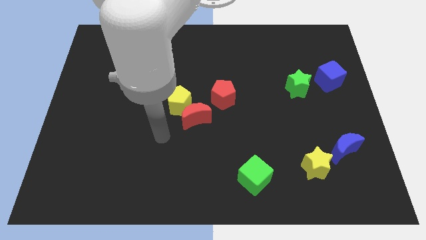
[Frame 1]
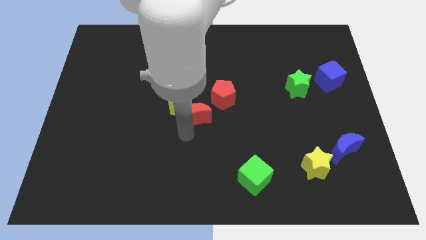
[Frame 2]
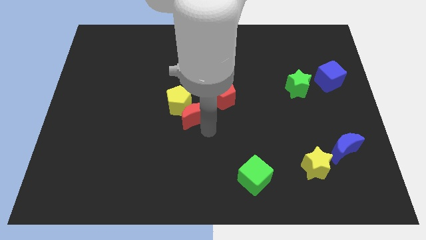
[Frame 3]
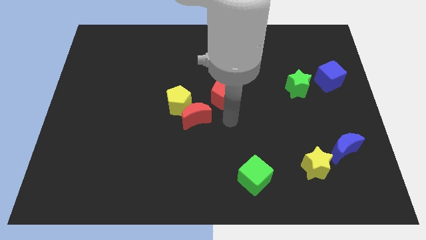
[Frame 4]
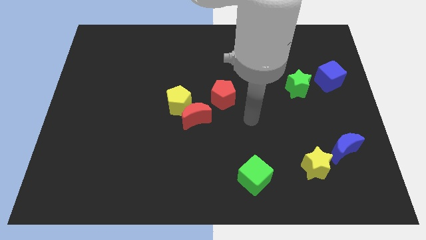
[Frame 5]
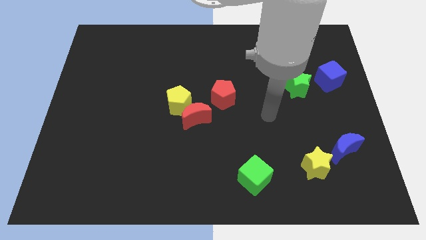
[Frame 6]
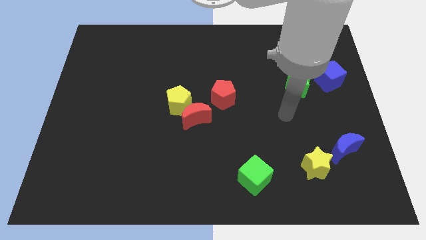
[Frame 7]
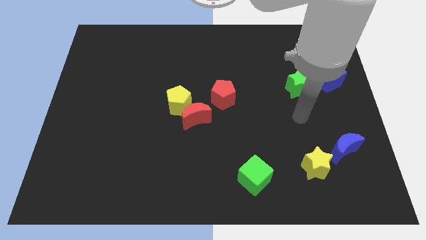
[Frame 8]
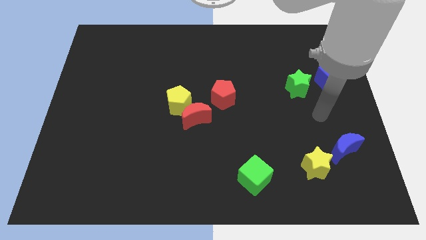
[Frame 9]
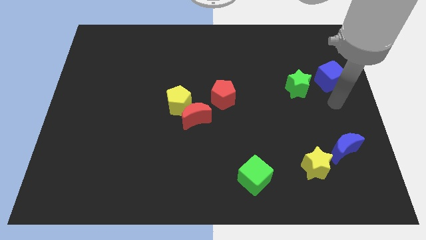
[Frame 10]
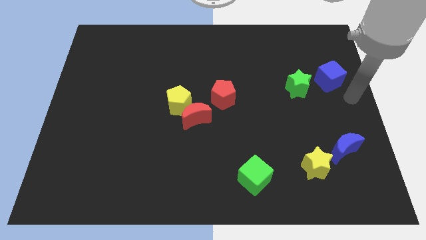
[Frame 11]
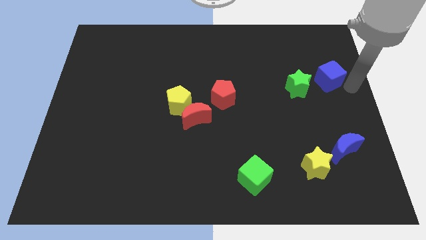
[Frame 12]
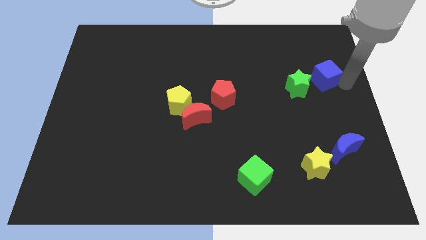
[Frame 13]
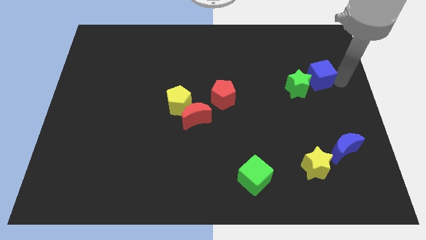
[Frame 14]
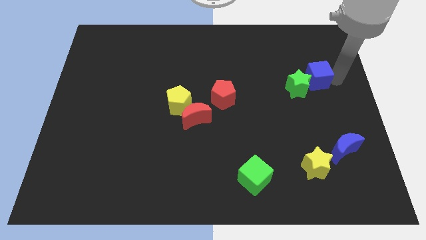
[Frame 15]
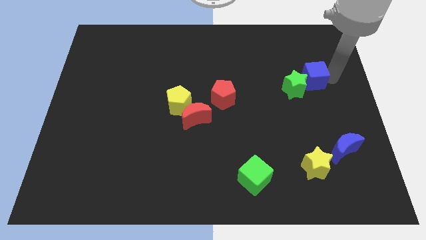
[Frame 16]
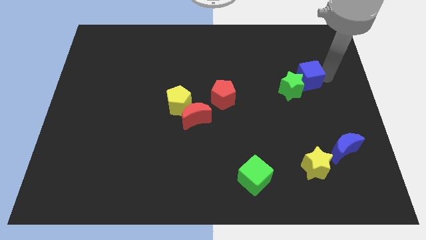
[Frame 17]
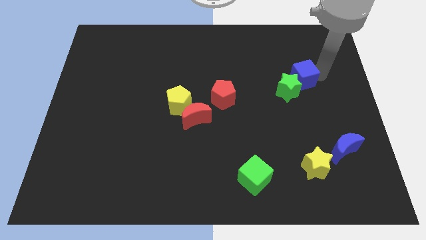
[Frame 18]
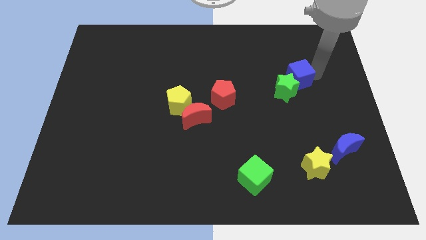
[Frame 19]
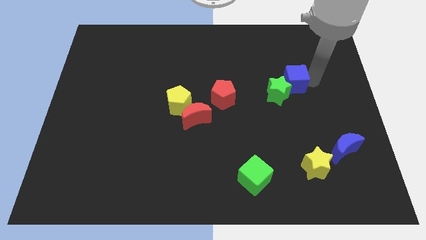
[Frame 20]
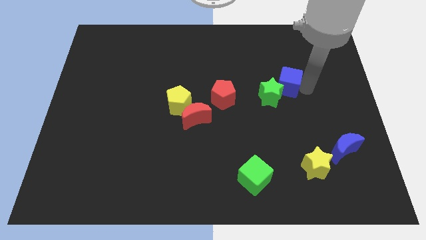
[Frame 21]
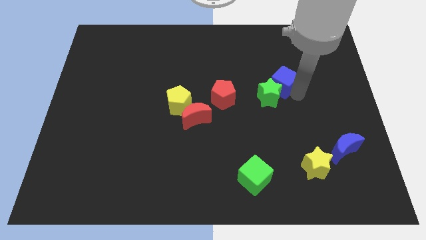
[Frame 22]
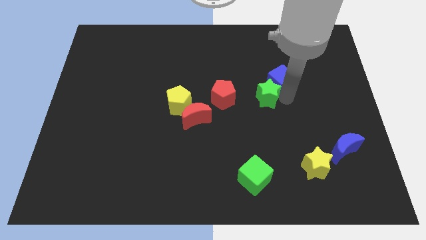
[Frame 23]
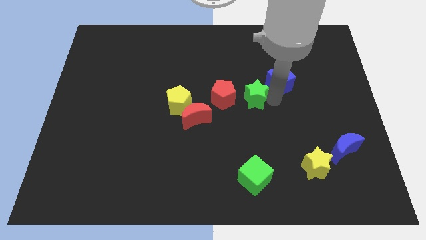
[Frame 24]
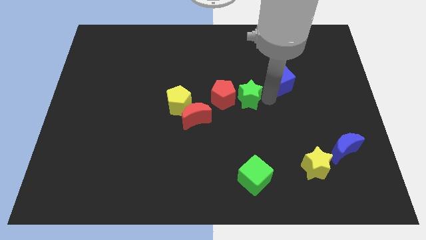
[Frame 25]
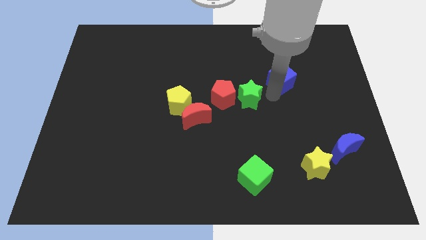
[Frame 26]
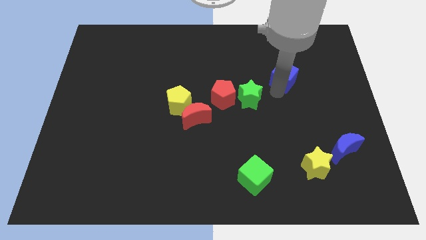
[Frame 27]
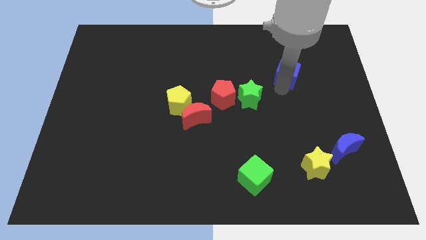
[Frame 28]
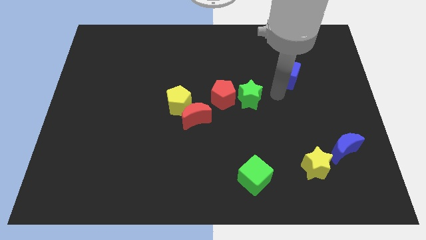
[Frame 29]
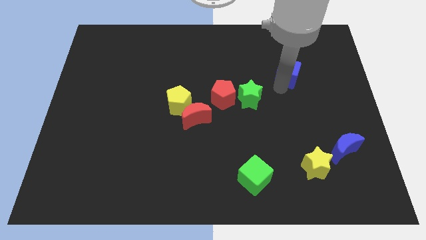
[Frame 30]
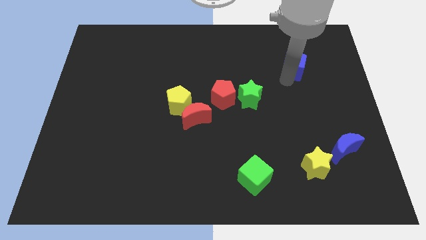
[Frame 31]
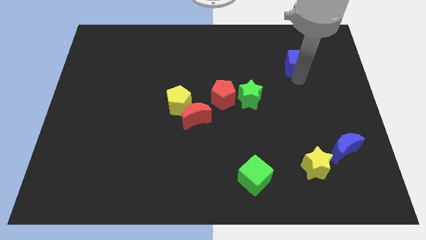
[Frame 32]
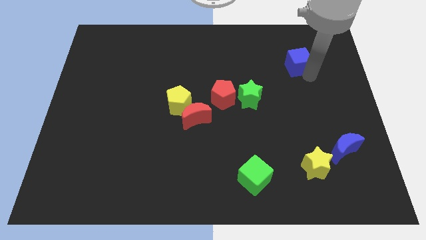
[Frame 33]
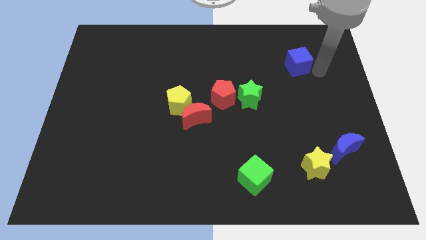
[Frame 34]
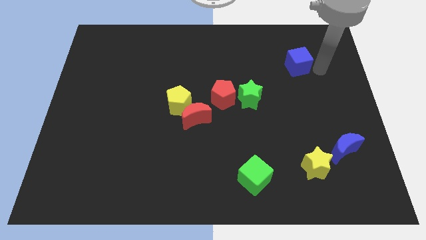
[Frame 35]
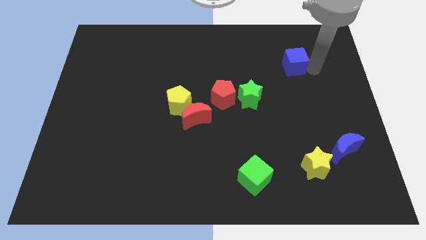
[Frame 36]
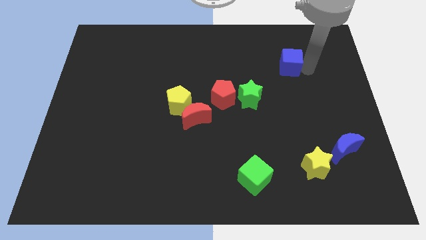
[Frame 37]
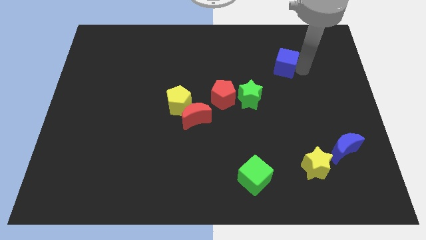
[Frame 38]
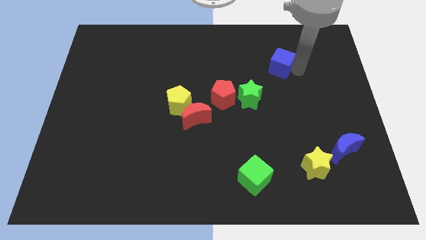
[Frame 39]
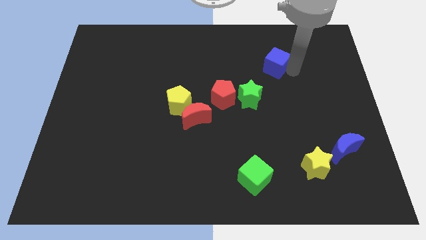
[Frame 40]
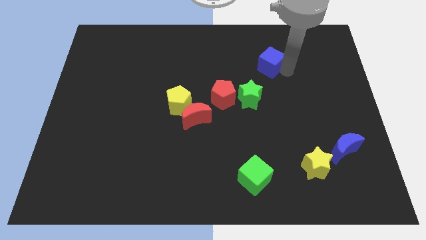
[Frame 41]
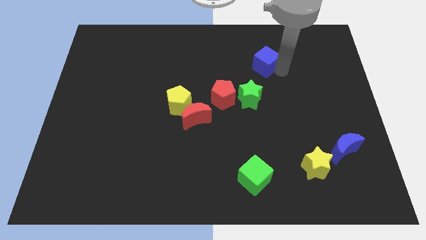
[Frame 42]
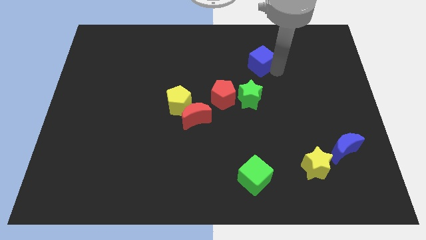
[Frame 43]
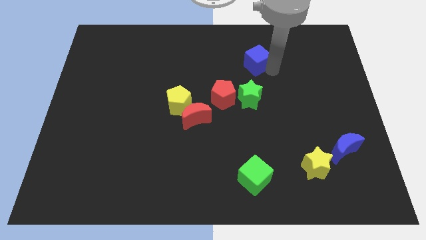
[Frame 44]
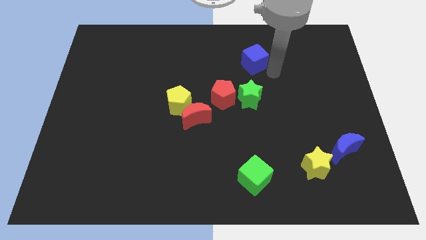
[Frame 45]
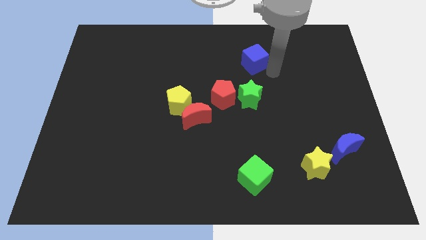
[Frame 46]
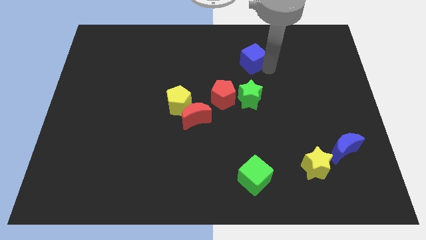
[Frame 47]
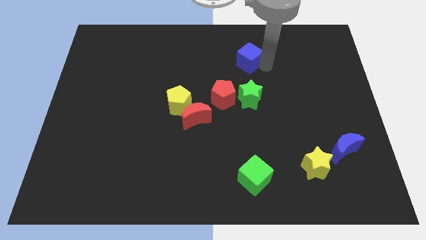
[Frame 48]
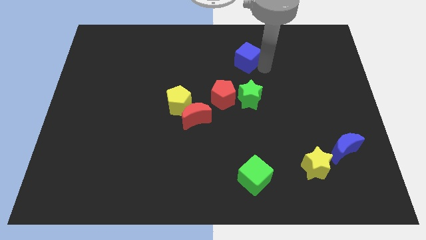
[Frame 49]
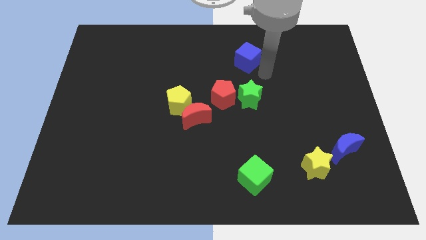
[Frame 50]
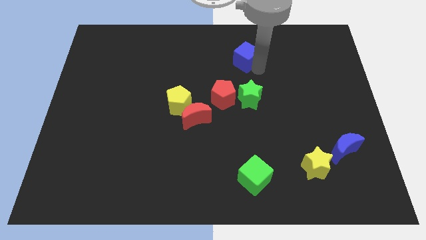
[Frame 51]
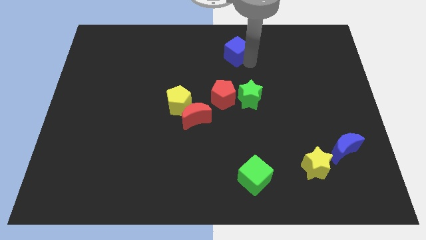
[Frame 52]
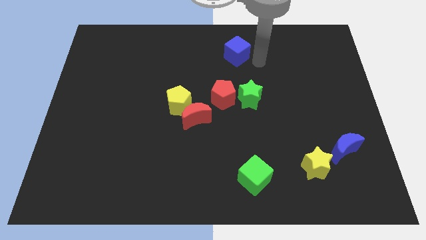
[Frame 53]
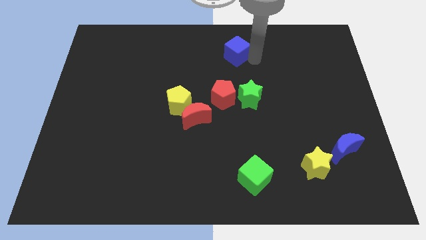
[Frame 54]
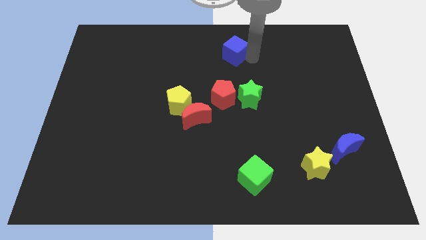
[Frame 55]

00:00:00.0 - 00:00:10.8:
move the blue cube to the towards your base
